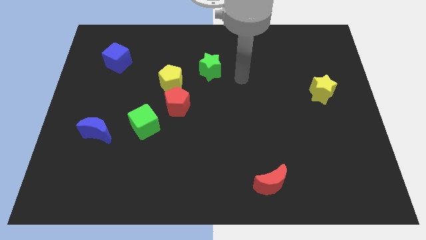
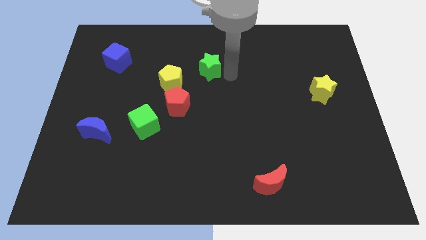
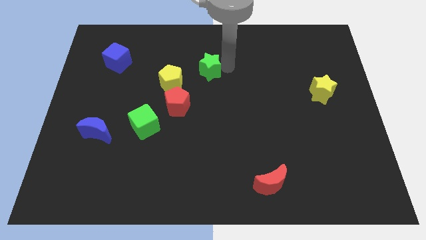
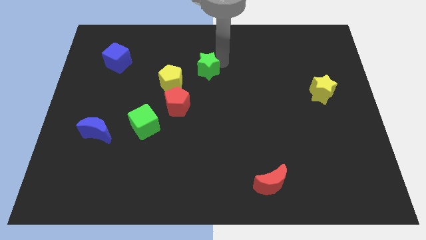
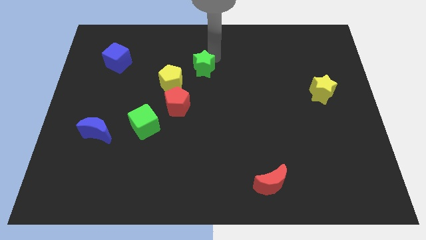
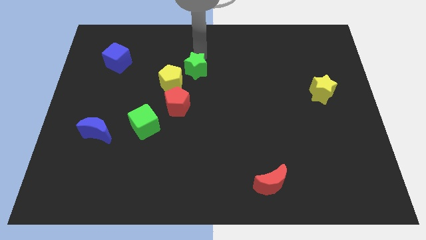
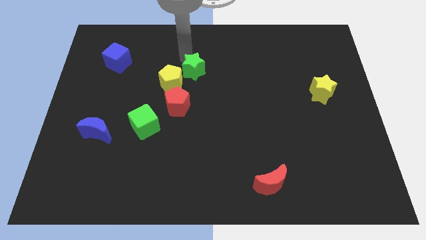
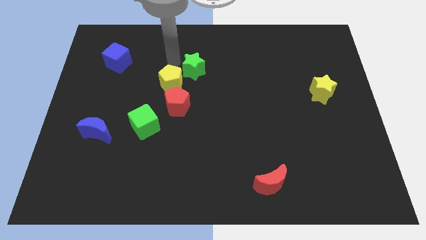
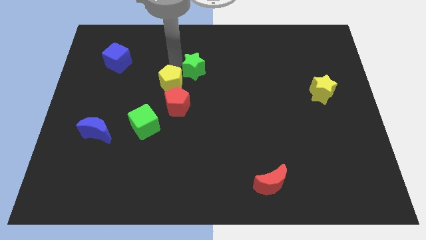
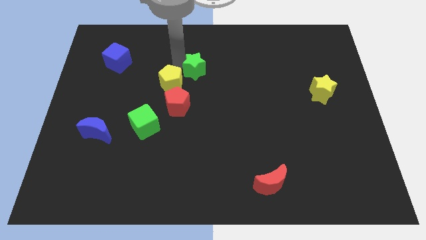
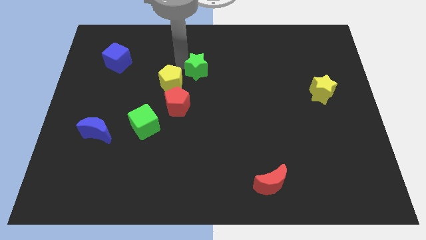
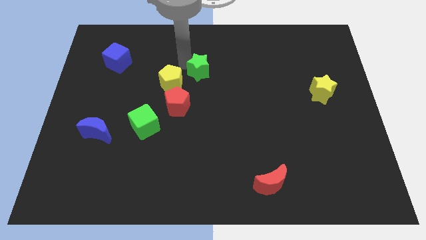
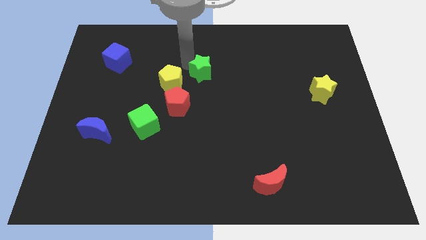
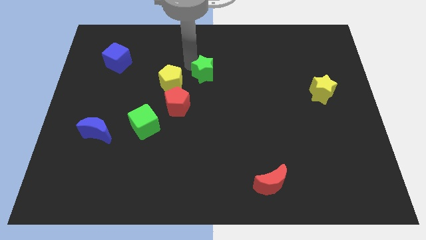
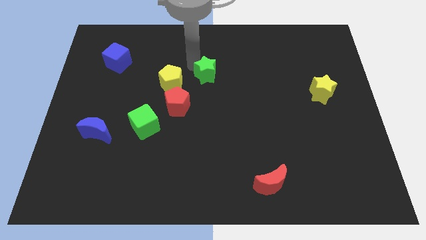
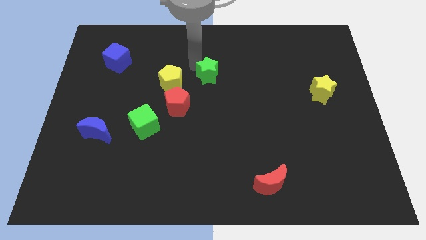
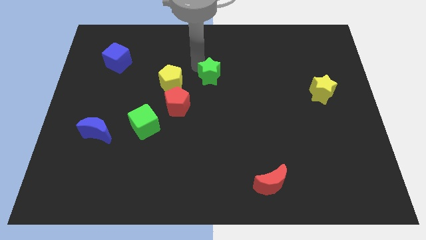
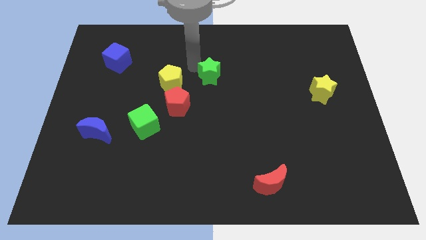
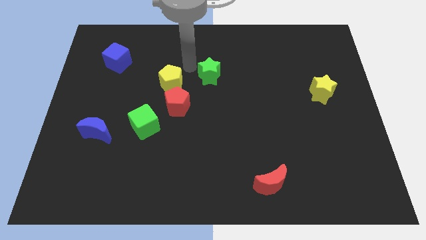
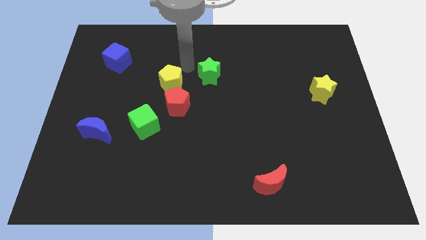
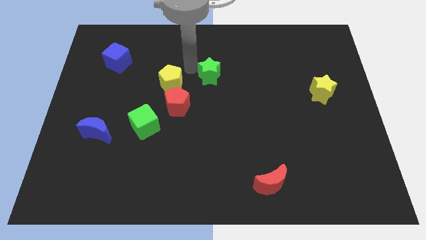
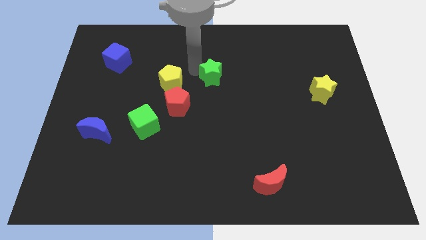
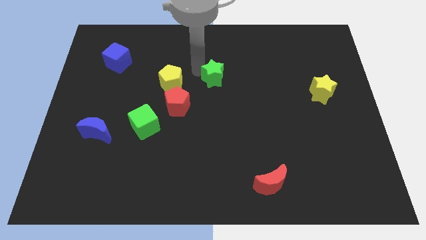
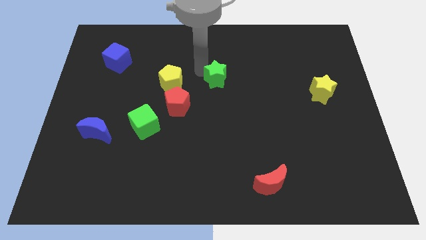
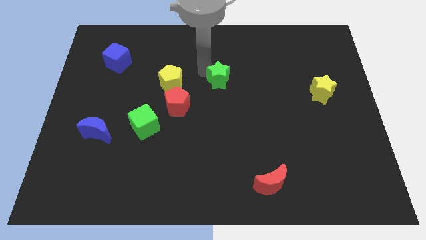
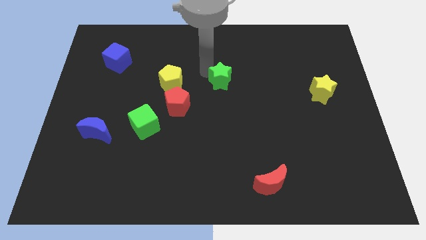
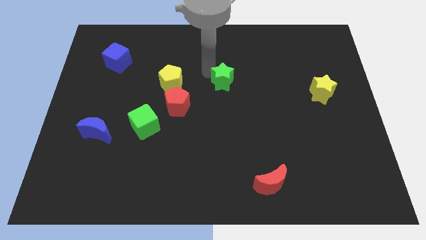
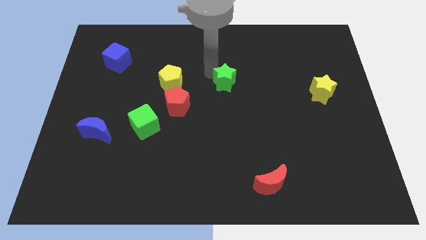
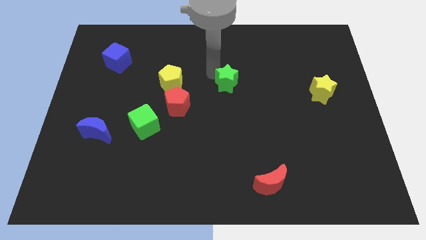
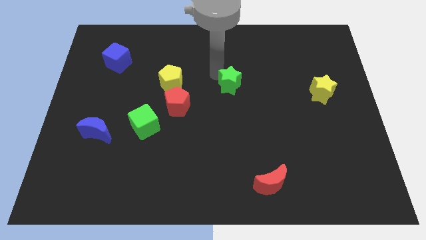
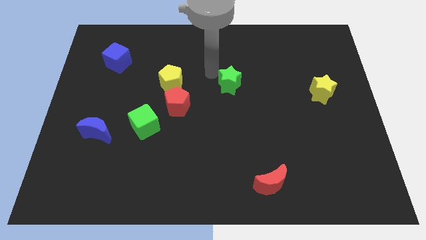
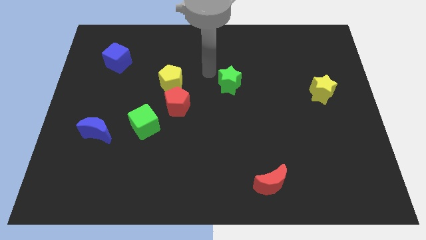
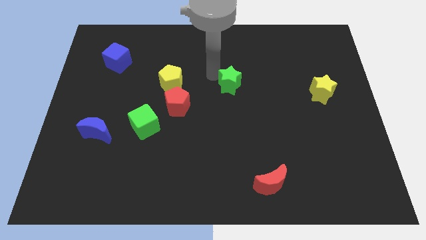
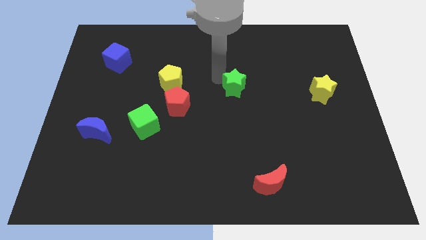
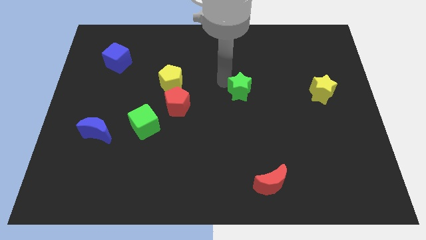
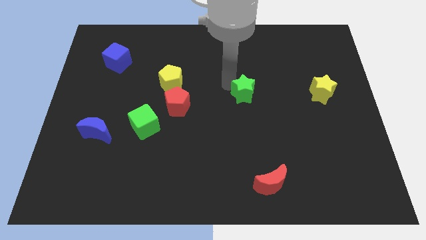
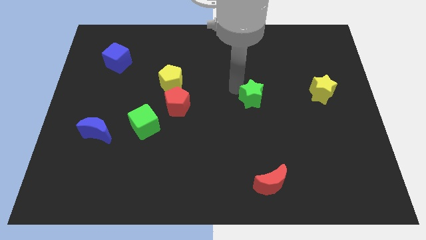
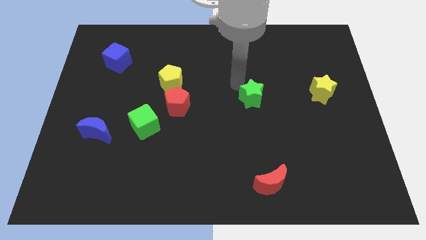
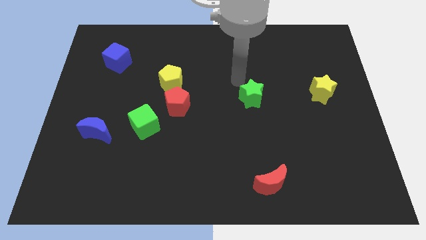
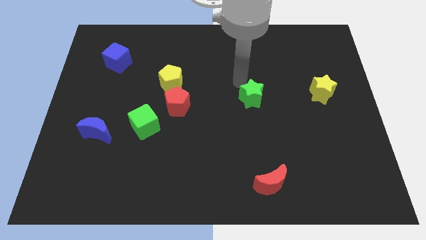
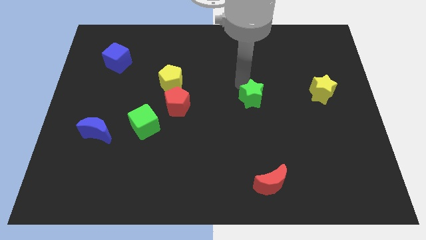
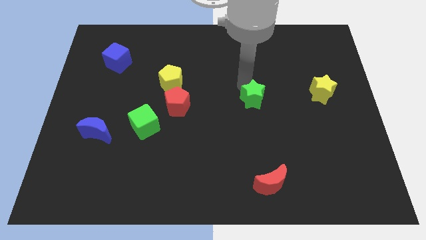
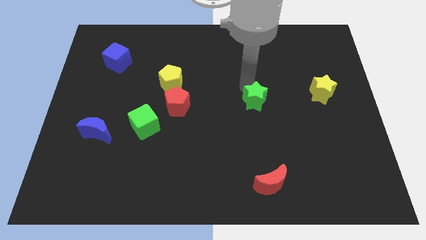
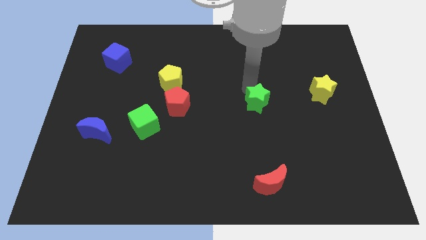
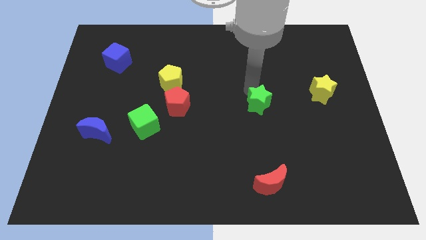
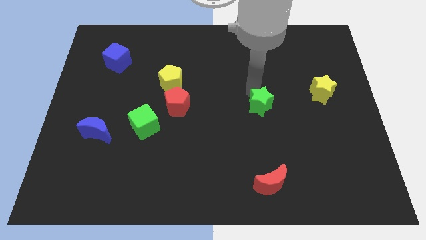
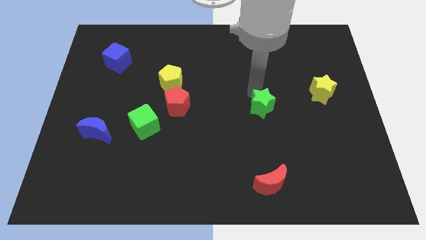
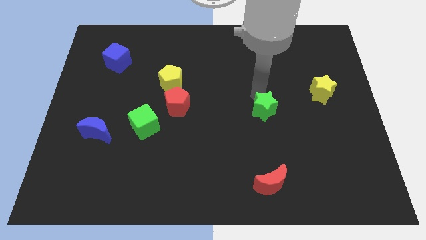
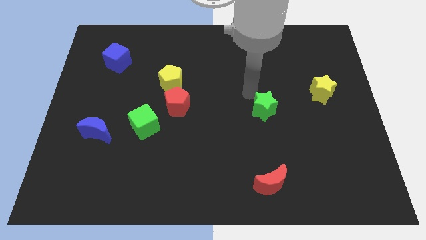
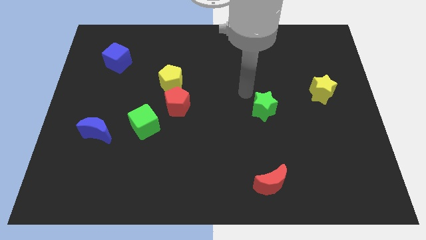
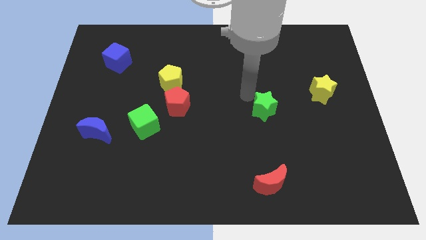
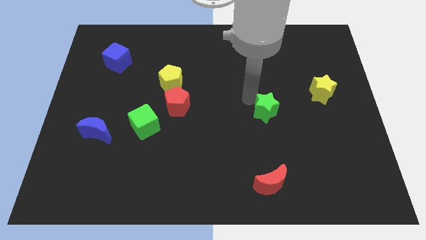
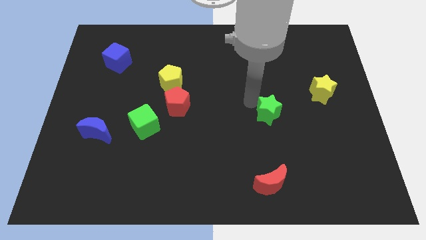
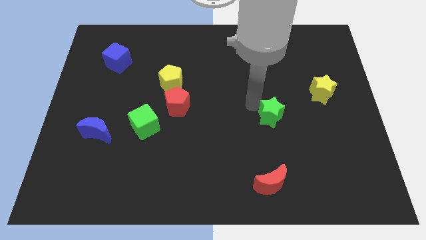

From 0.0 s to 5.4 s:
push the green star diagonally downwards and to the right

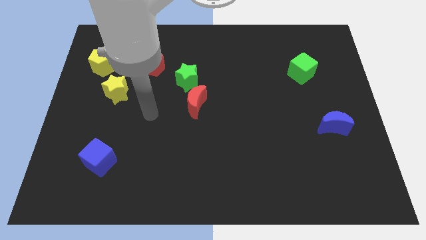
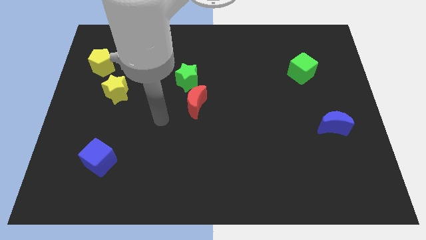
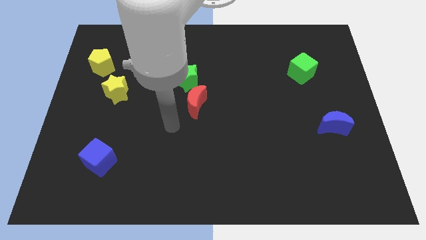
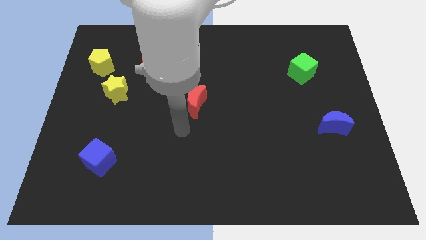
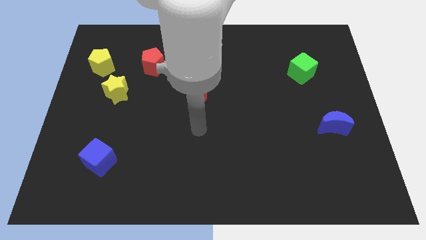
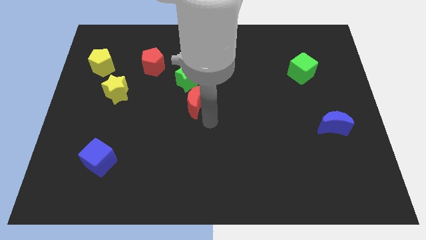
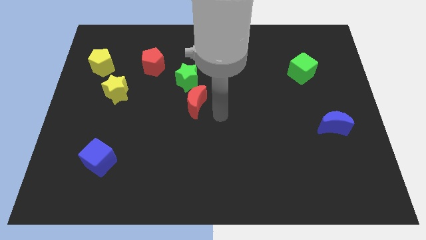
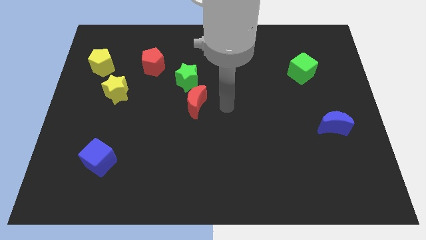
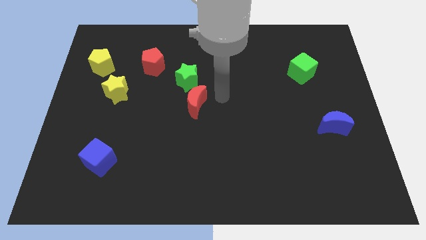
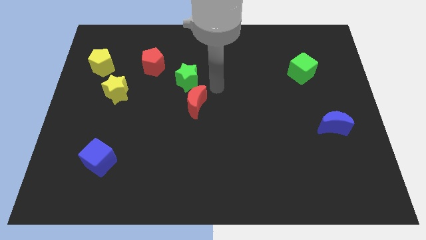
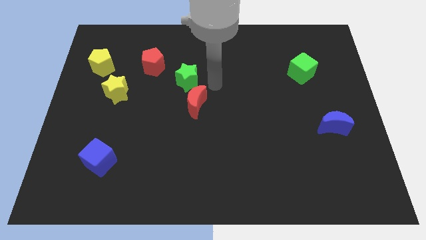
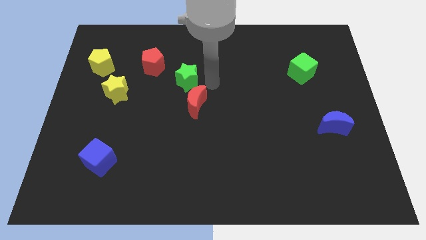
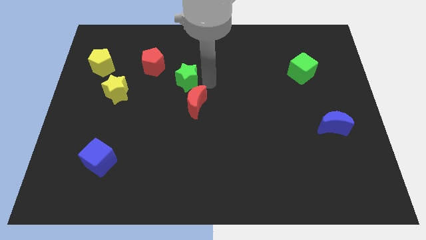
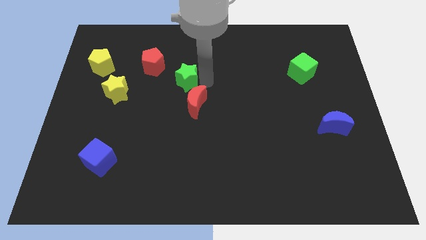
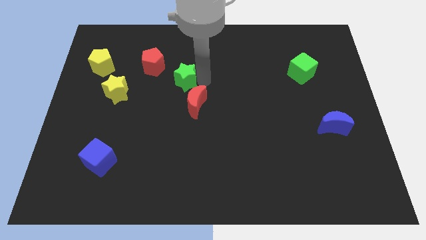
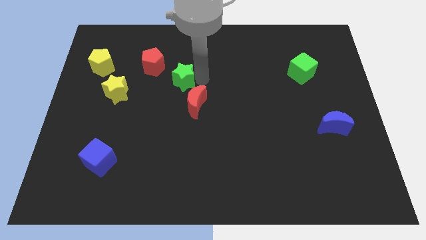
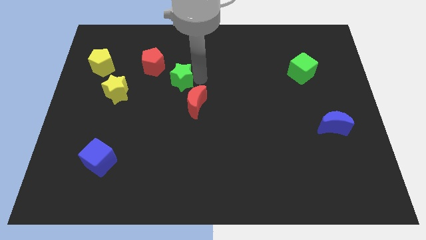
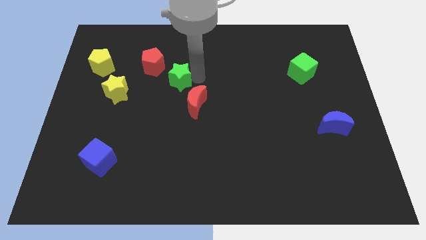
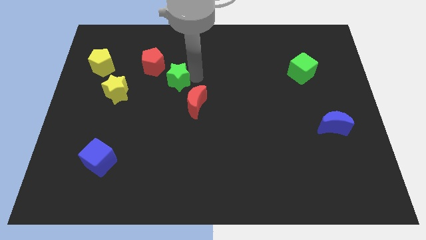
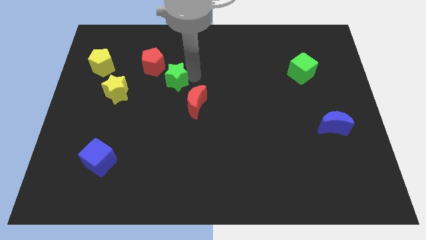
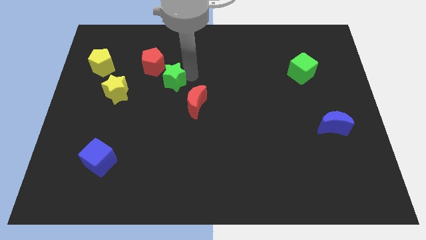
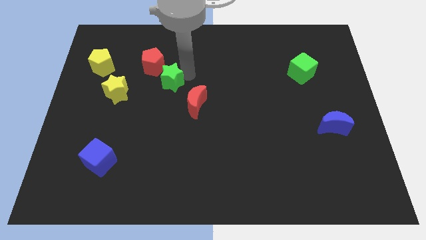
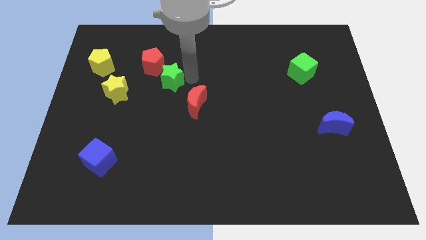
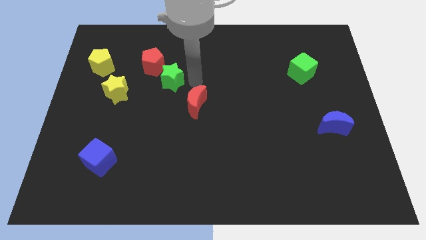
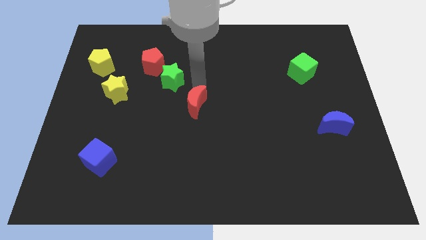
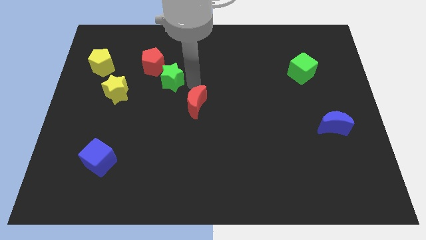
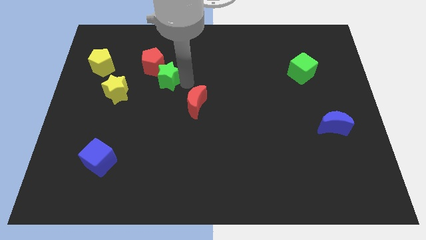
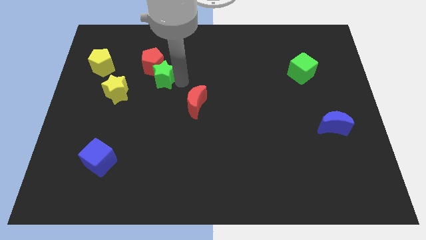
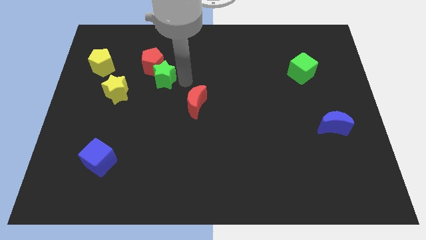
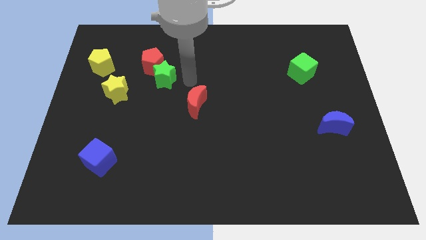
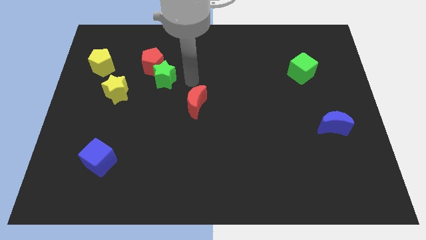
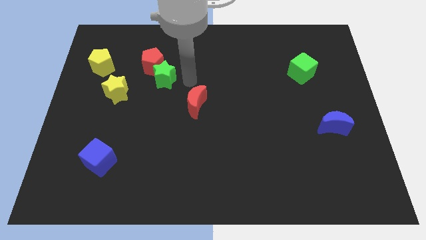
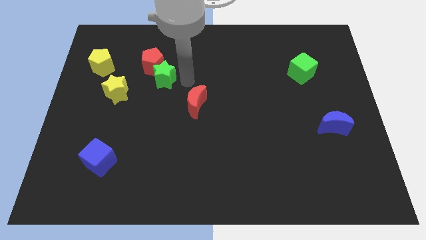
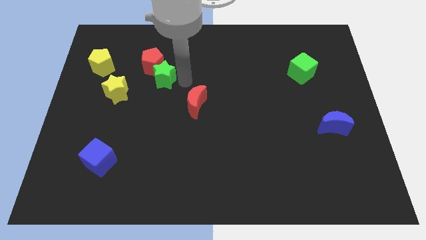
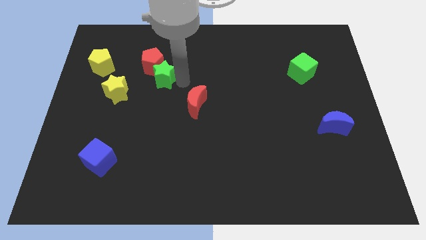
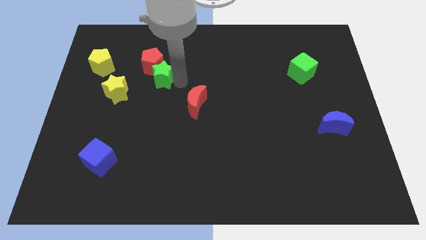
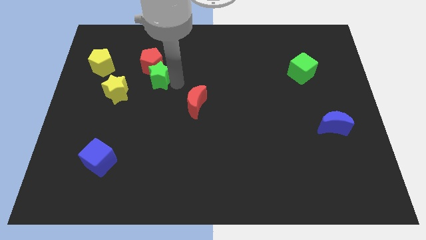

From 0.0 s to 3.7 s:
move the green star a bit left
